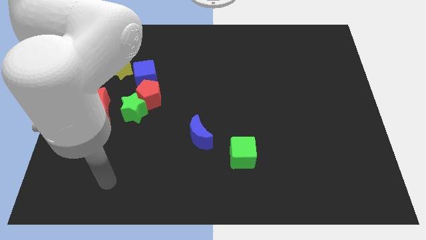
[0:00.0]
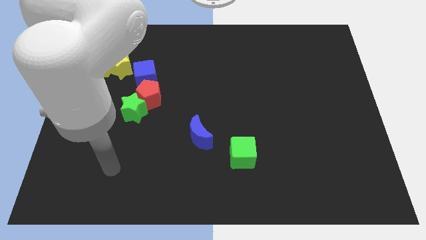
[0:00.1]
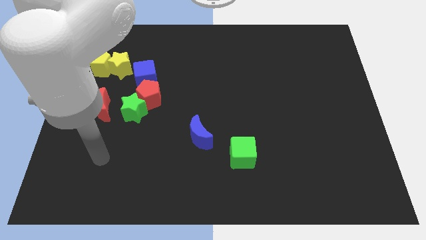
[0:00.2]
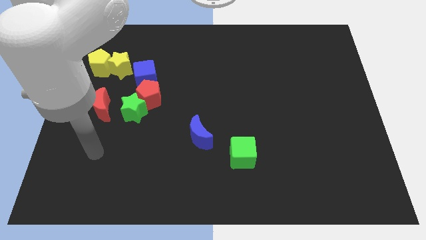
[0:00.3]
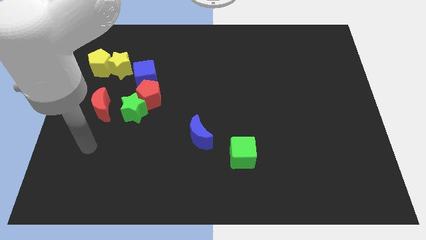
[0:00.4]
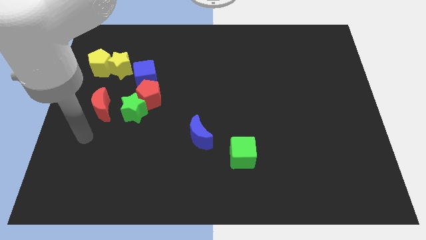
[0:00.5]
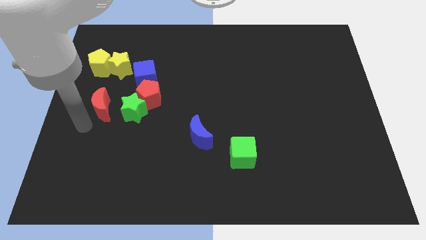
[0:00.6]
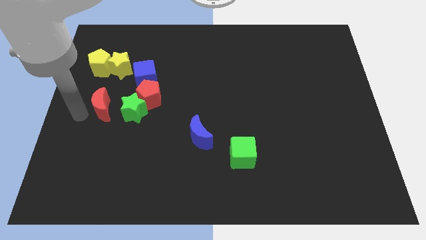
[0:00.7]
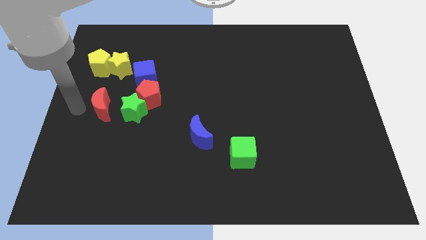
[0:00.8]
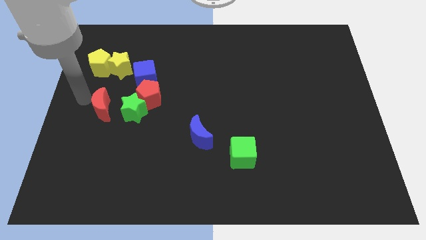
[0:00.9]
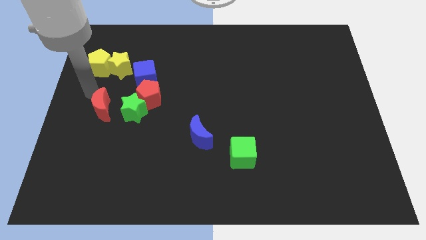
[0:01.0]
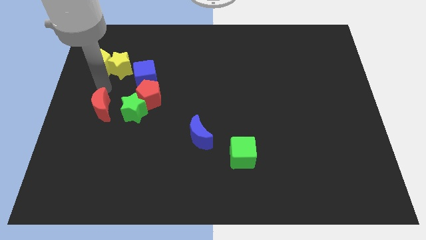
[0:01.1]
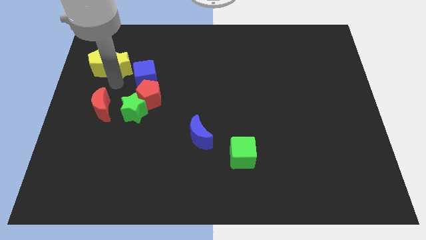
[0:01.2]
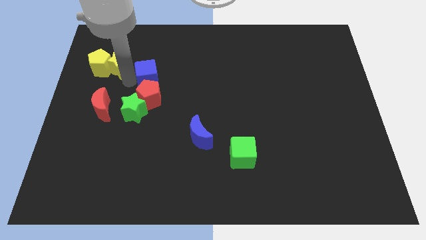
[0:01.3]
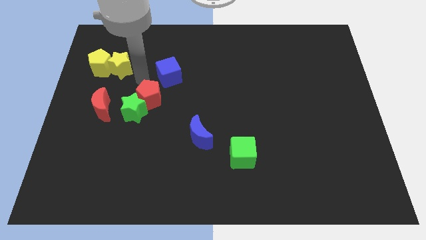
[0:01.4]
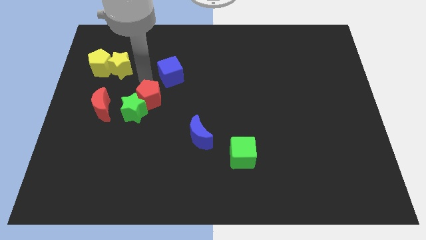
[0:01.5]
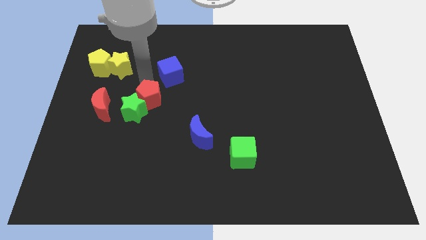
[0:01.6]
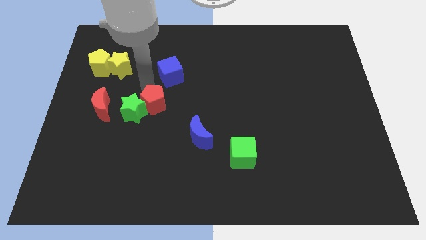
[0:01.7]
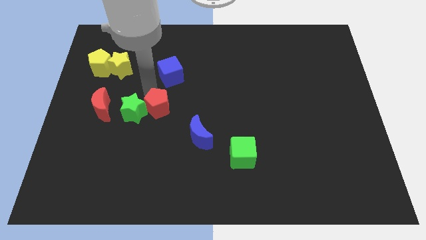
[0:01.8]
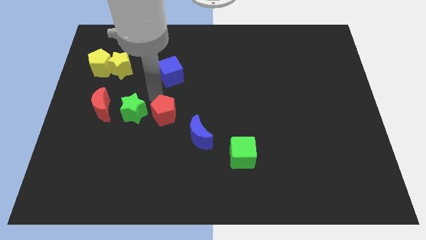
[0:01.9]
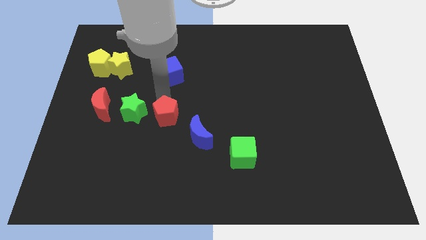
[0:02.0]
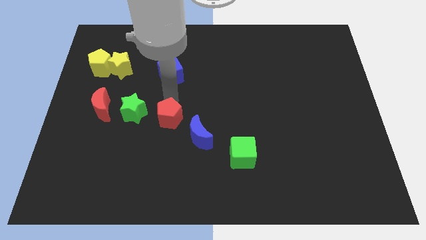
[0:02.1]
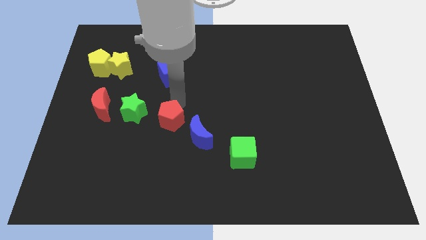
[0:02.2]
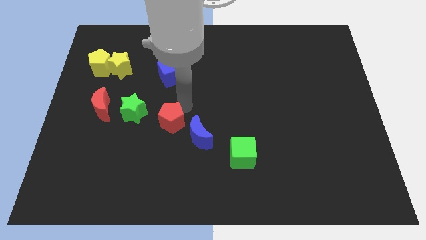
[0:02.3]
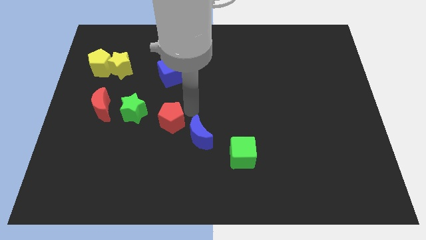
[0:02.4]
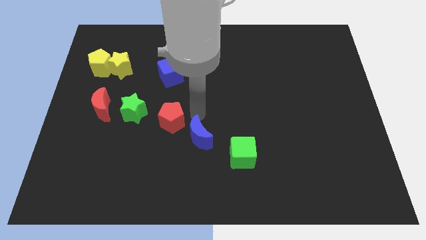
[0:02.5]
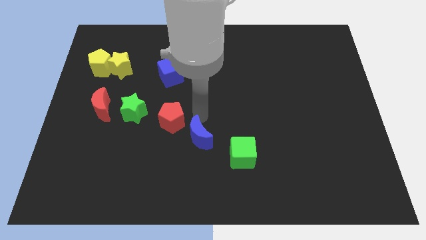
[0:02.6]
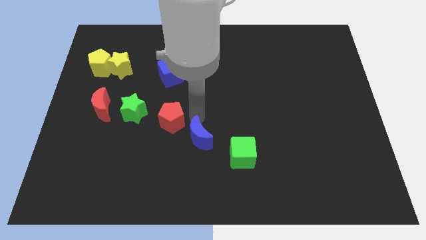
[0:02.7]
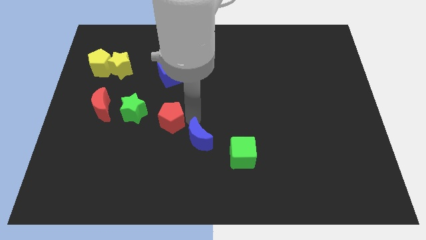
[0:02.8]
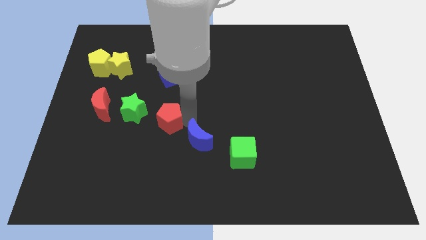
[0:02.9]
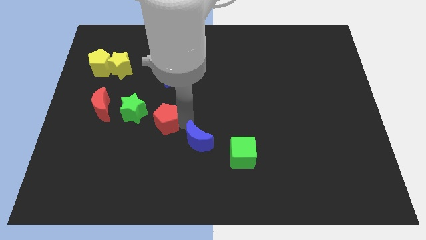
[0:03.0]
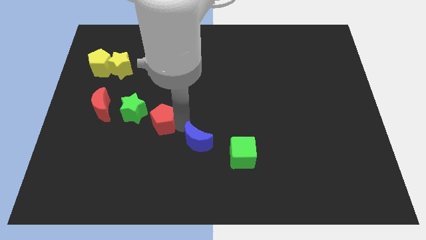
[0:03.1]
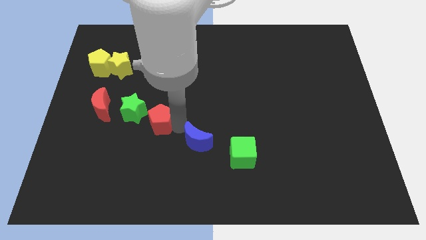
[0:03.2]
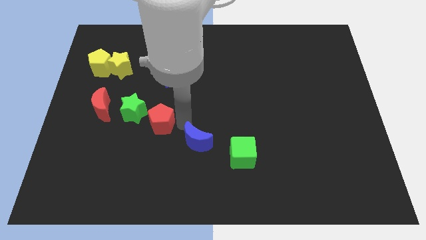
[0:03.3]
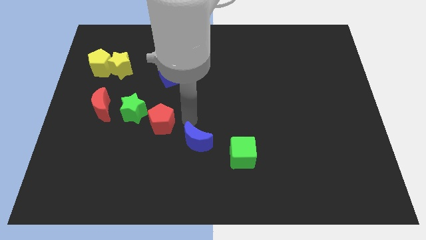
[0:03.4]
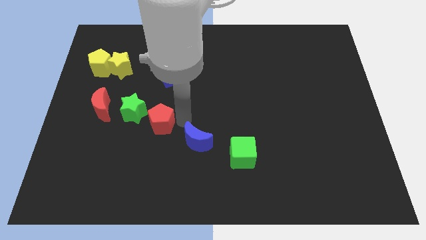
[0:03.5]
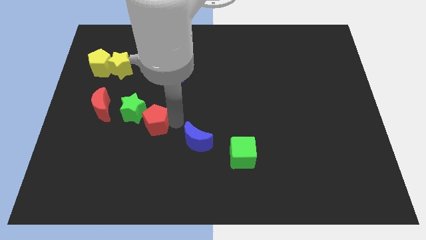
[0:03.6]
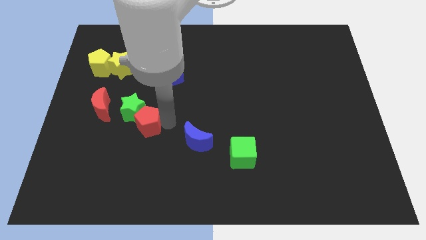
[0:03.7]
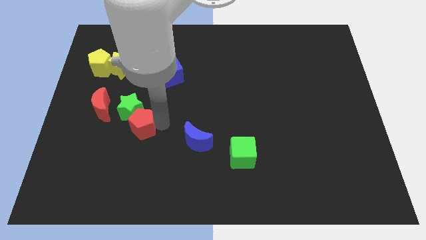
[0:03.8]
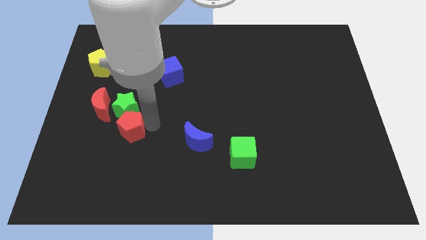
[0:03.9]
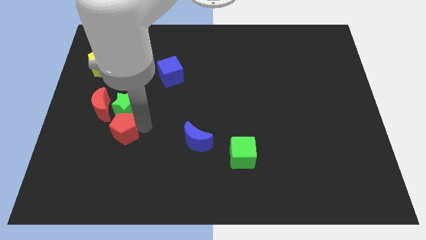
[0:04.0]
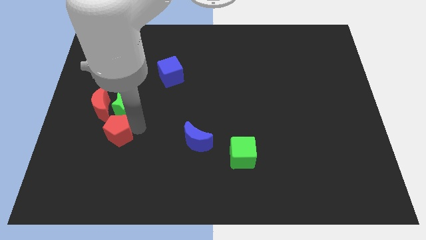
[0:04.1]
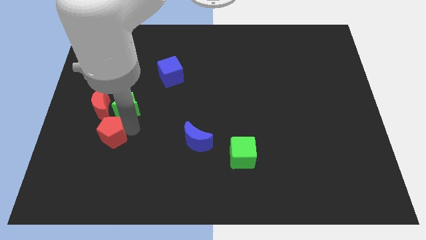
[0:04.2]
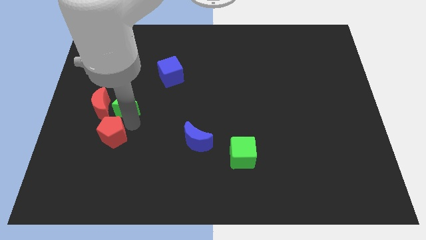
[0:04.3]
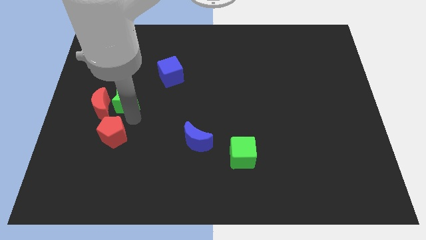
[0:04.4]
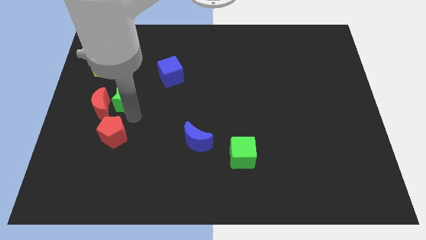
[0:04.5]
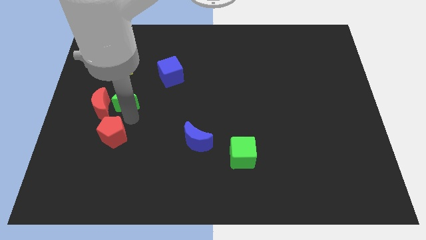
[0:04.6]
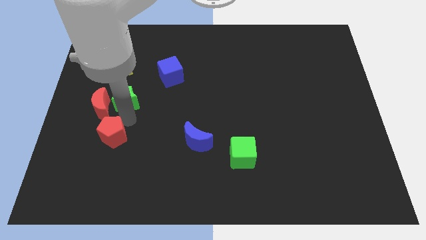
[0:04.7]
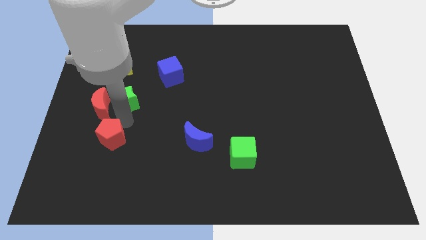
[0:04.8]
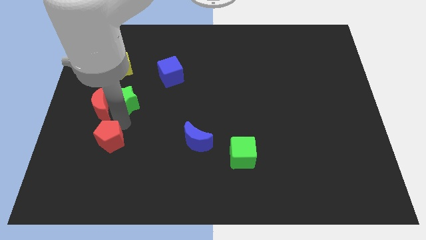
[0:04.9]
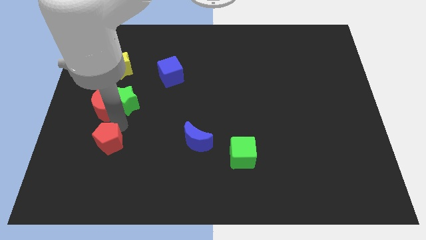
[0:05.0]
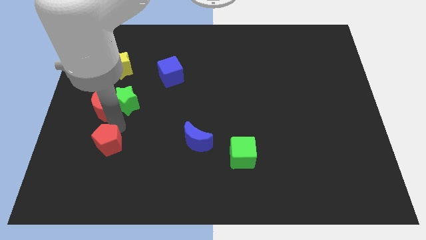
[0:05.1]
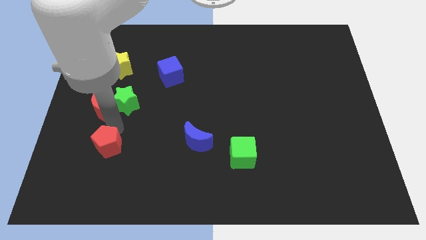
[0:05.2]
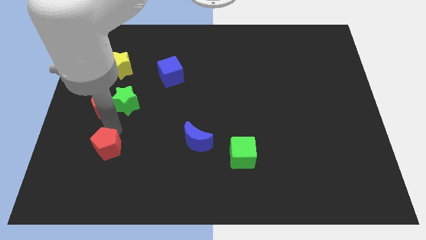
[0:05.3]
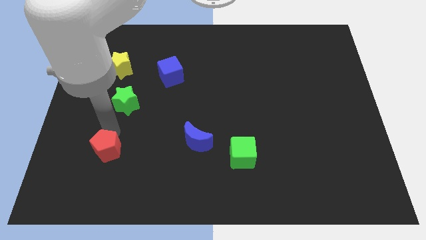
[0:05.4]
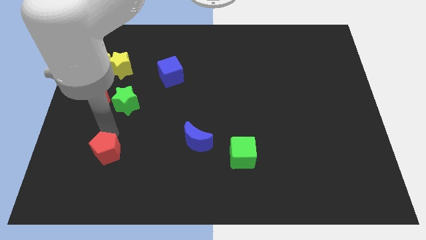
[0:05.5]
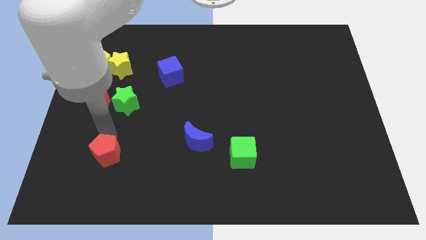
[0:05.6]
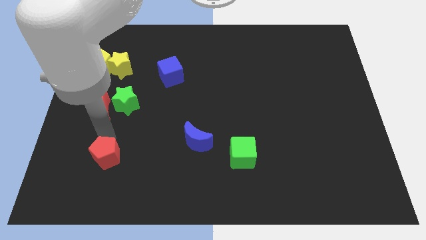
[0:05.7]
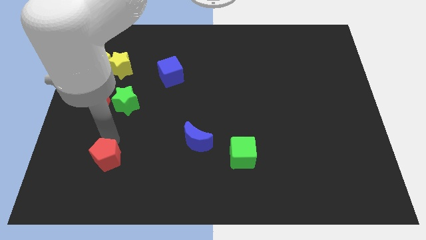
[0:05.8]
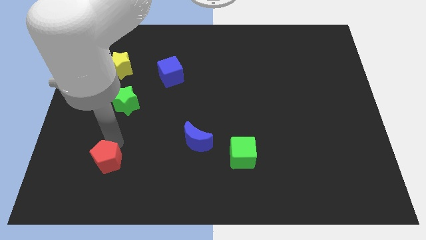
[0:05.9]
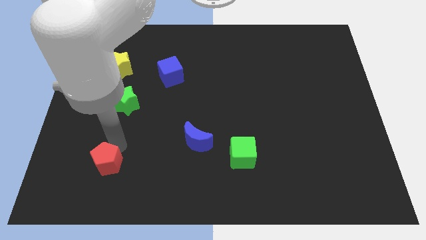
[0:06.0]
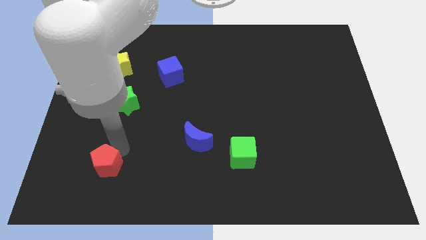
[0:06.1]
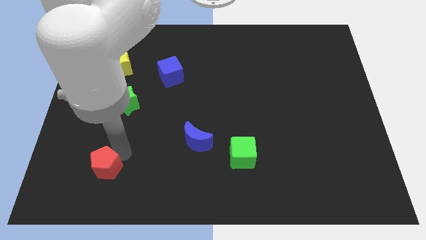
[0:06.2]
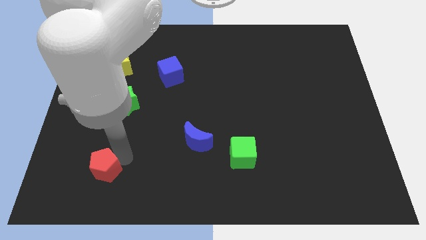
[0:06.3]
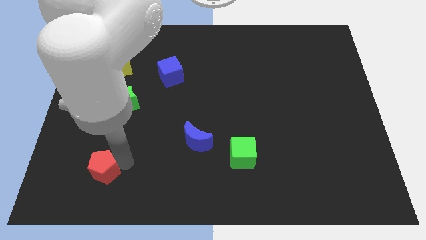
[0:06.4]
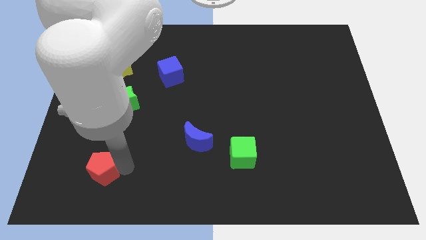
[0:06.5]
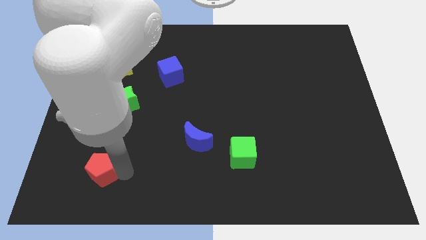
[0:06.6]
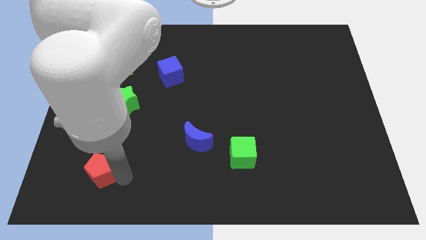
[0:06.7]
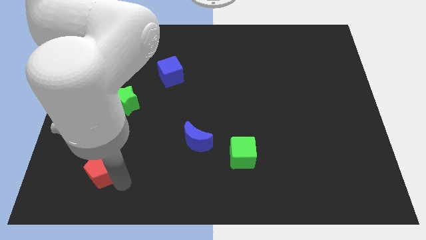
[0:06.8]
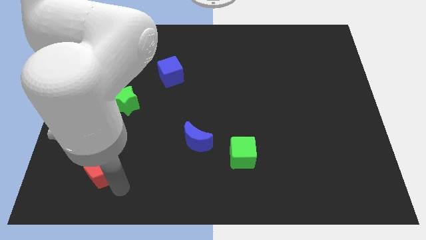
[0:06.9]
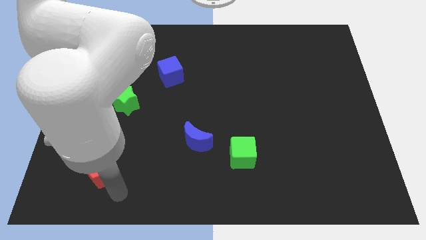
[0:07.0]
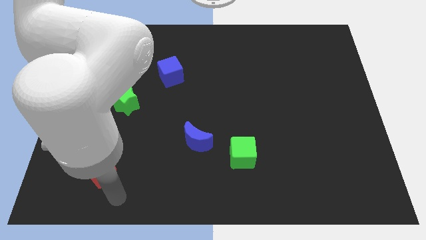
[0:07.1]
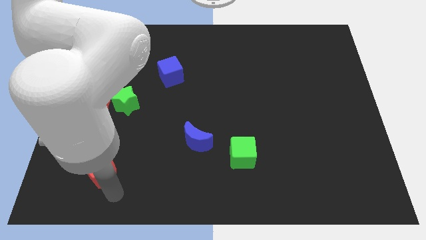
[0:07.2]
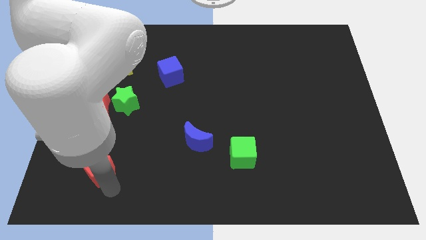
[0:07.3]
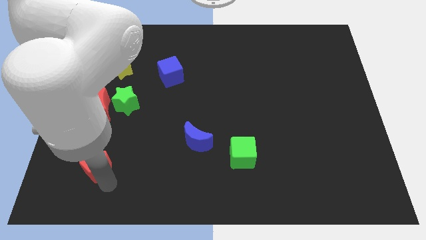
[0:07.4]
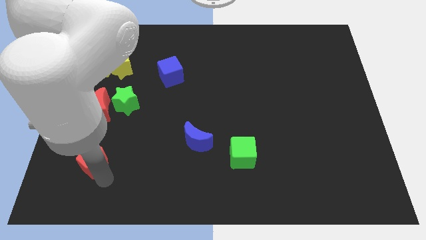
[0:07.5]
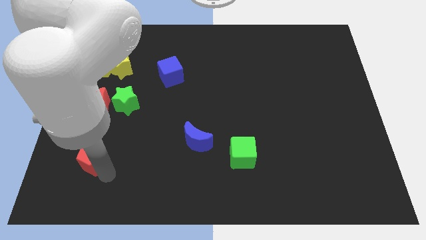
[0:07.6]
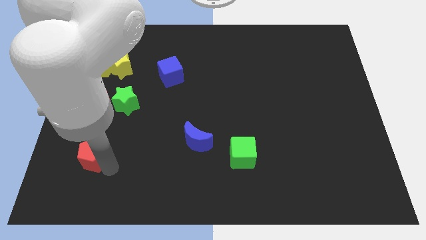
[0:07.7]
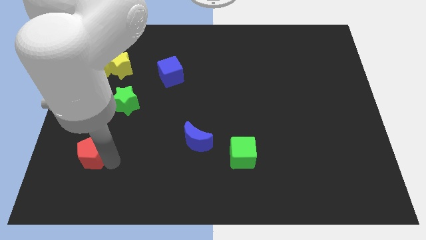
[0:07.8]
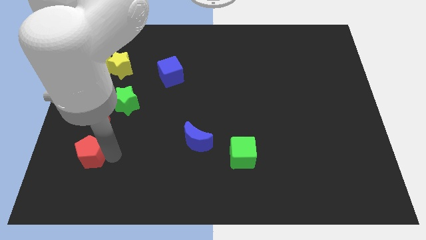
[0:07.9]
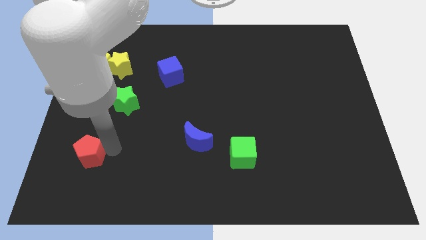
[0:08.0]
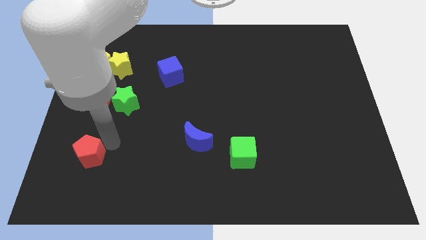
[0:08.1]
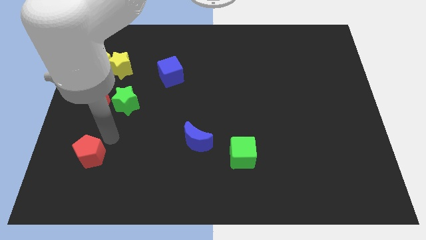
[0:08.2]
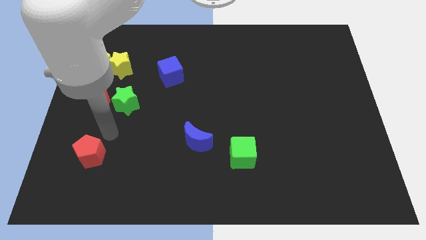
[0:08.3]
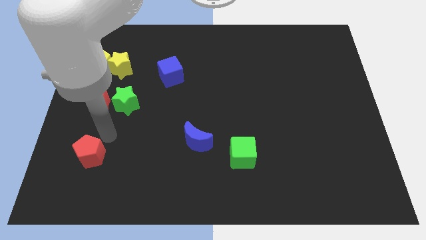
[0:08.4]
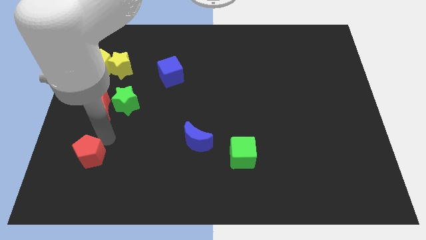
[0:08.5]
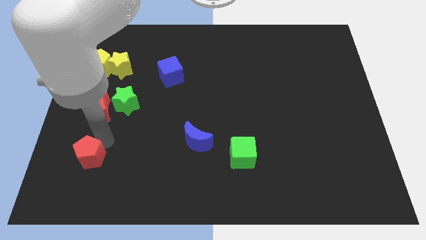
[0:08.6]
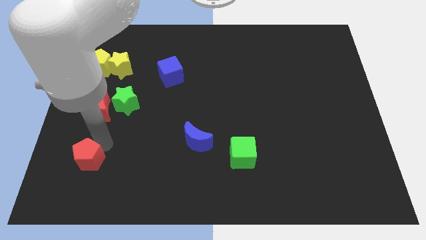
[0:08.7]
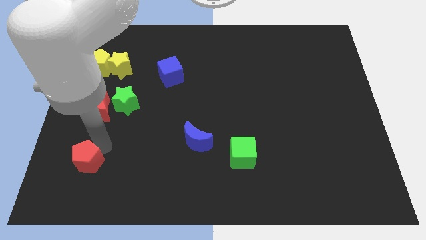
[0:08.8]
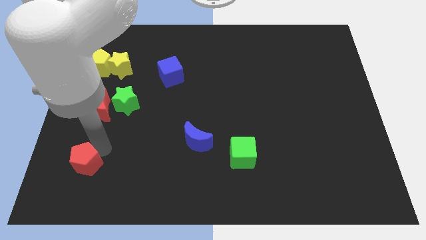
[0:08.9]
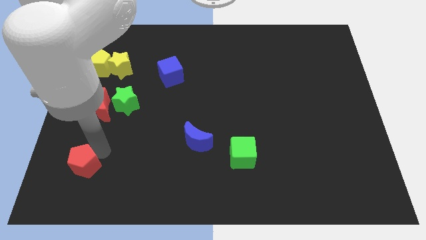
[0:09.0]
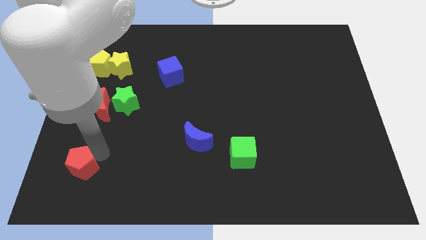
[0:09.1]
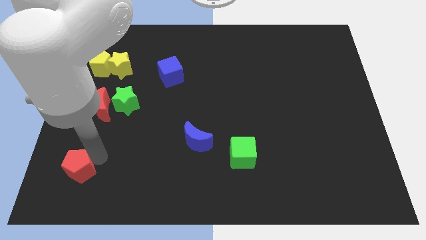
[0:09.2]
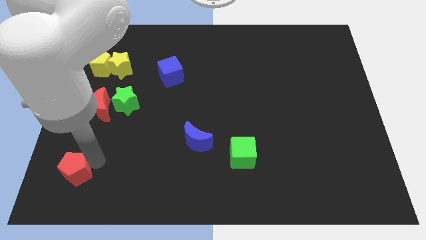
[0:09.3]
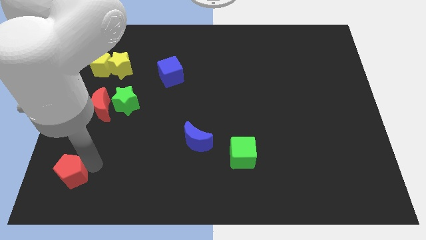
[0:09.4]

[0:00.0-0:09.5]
put the red pentagon to the bottom left
